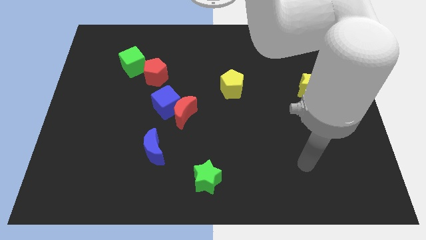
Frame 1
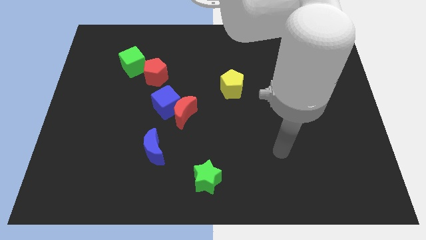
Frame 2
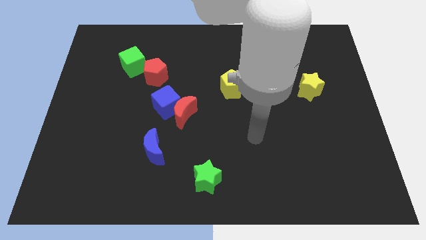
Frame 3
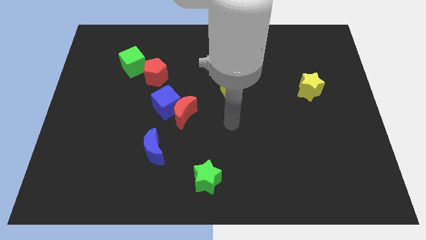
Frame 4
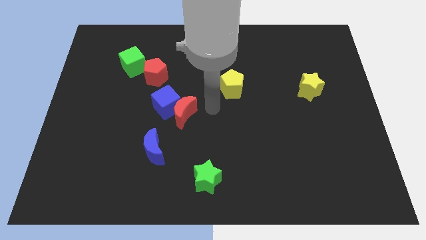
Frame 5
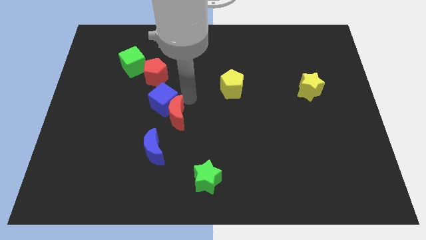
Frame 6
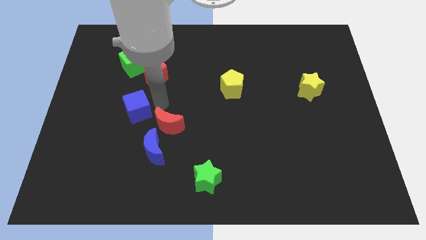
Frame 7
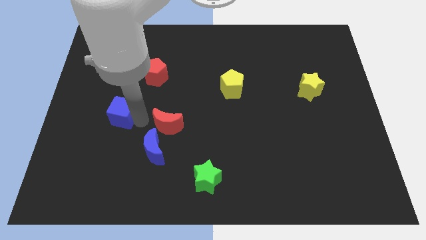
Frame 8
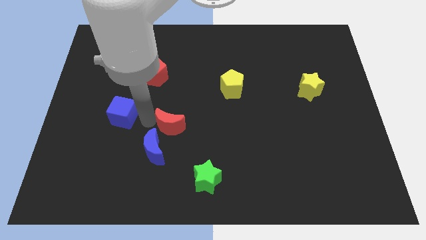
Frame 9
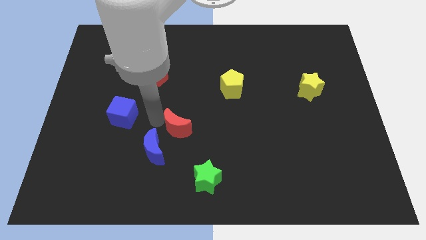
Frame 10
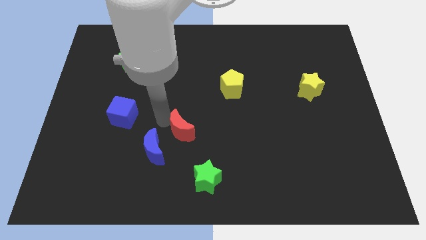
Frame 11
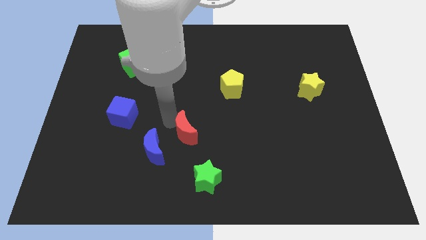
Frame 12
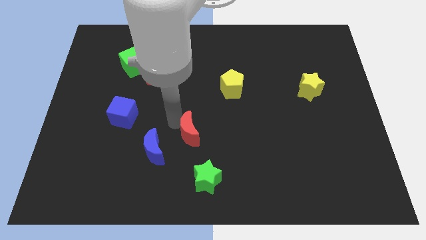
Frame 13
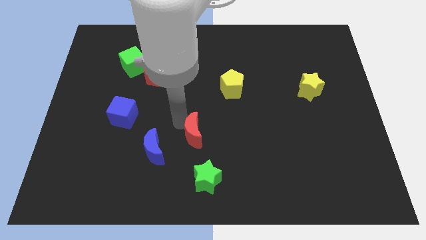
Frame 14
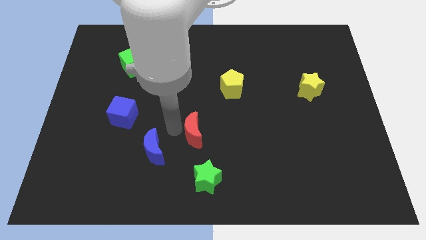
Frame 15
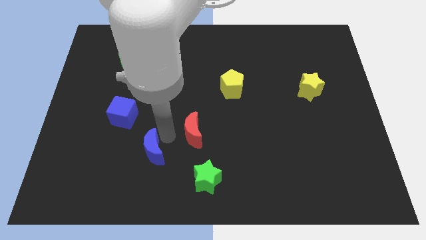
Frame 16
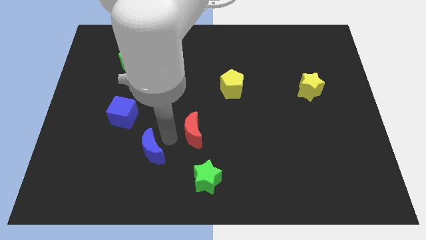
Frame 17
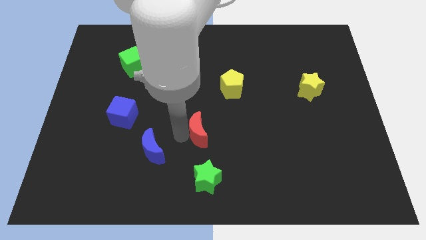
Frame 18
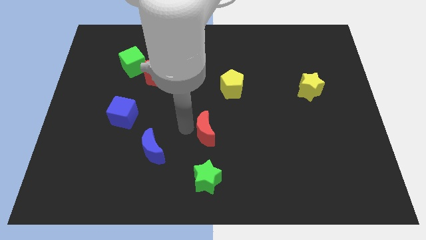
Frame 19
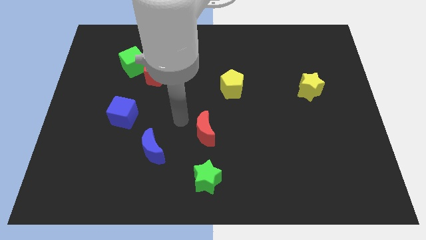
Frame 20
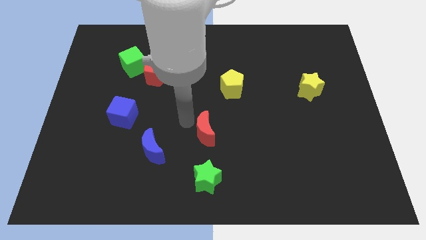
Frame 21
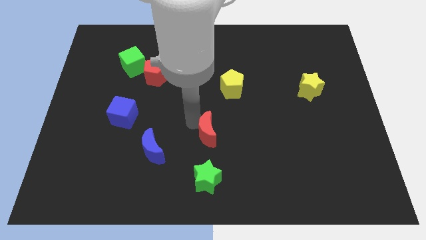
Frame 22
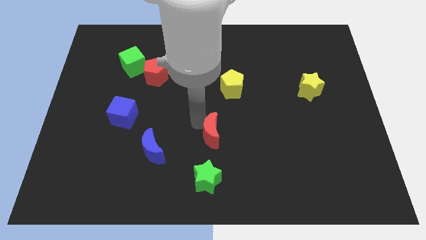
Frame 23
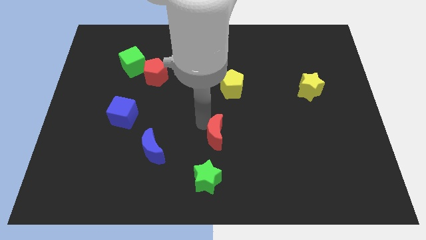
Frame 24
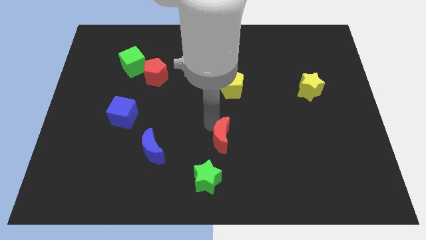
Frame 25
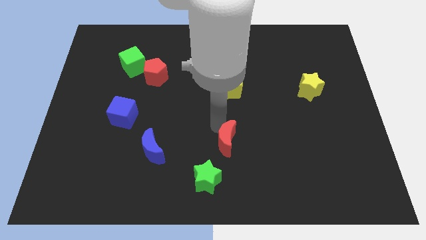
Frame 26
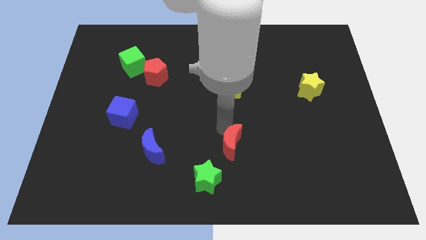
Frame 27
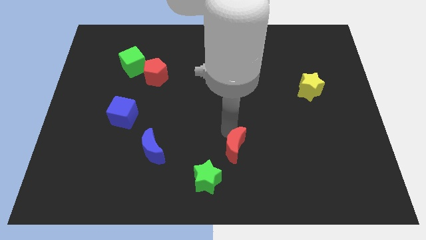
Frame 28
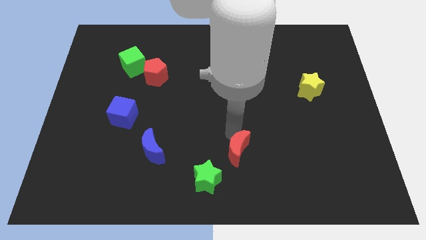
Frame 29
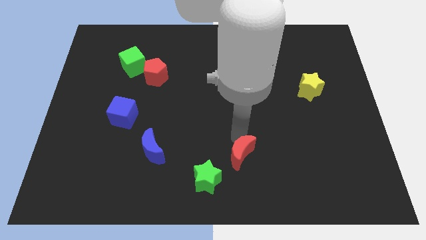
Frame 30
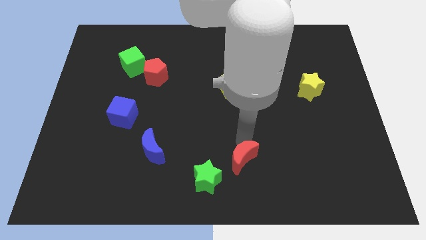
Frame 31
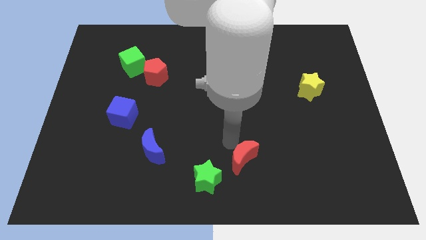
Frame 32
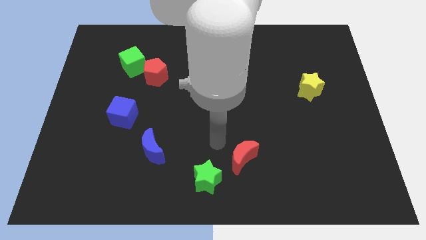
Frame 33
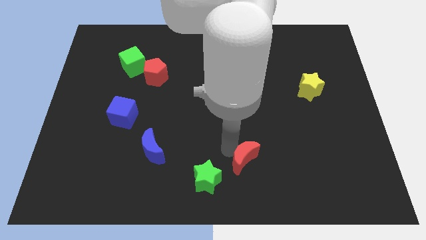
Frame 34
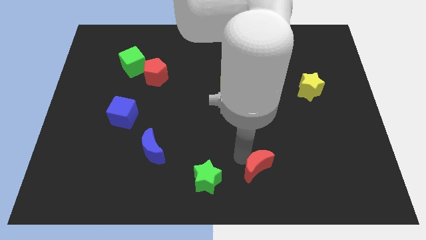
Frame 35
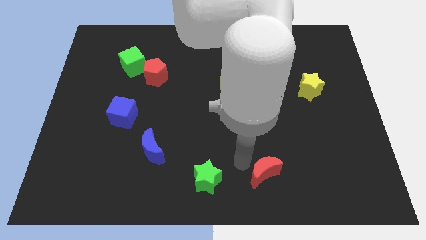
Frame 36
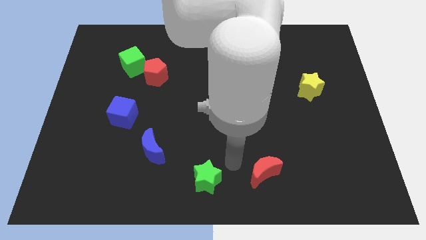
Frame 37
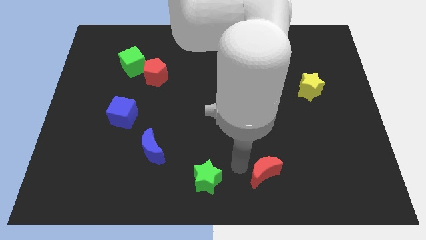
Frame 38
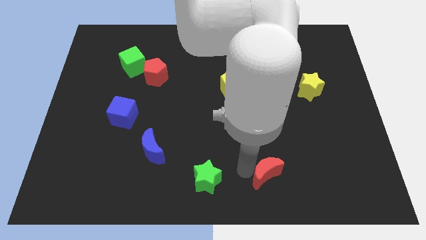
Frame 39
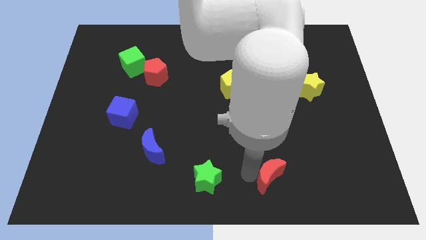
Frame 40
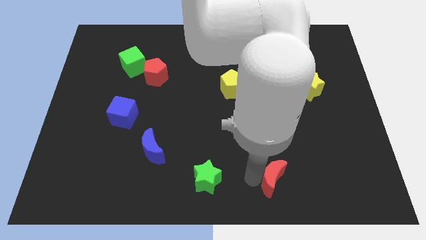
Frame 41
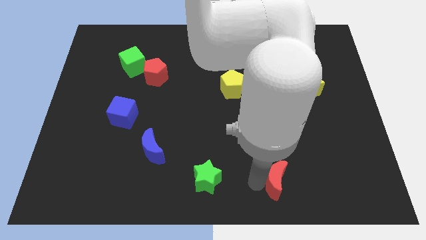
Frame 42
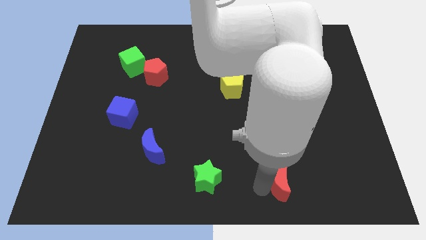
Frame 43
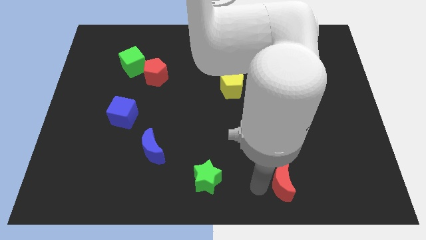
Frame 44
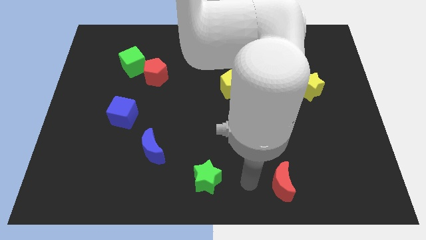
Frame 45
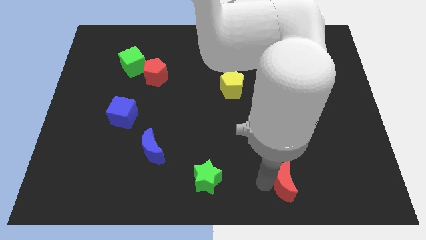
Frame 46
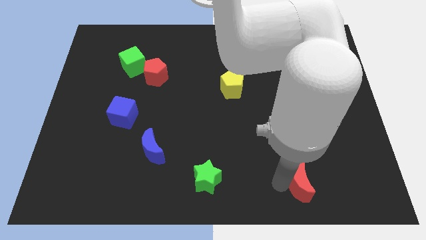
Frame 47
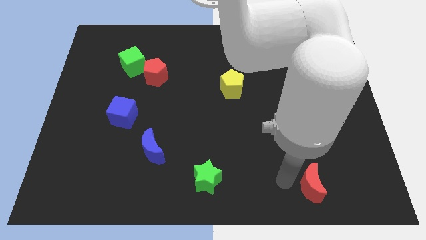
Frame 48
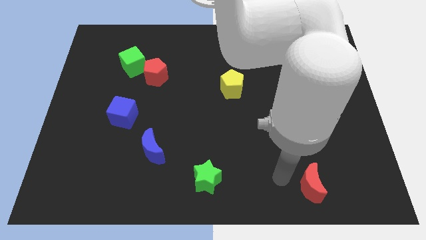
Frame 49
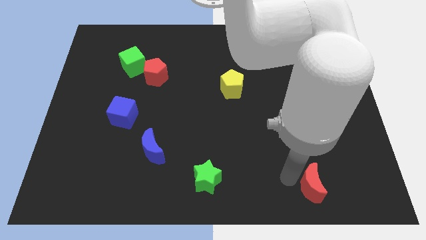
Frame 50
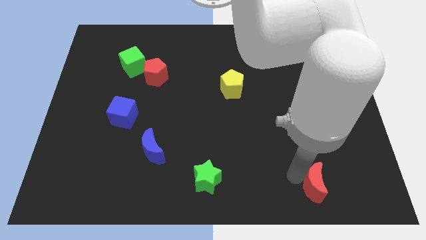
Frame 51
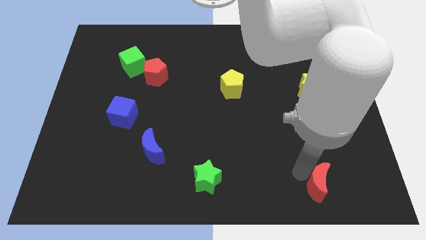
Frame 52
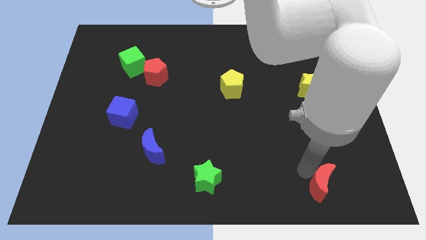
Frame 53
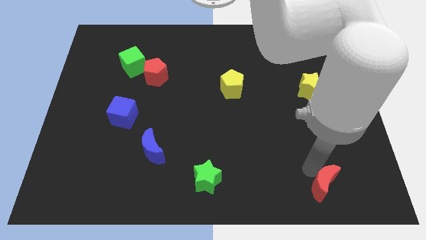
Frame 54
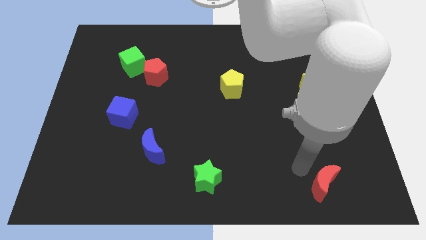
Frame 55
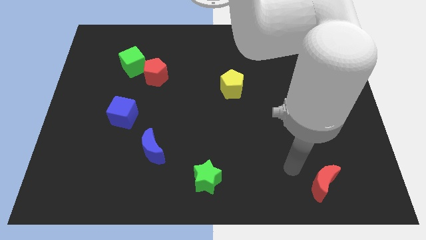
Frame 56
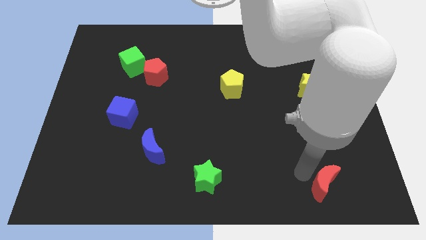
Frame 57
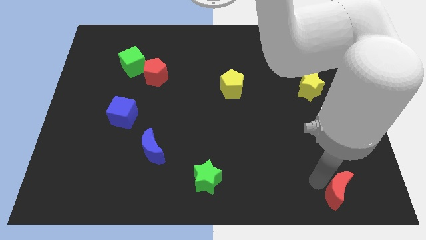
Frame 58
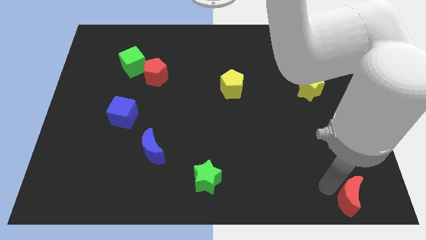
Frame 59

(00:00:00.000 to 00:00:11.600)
move the red moon to the bottom right of the board
